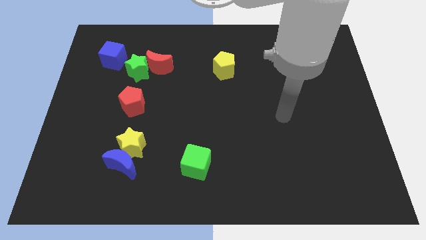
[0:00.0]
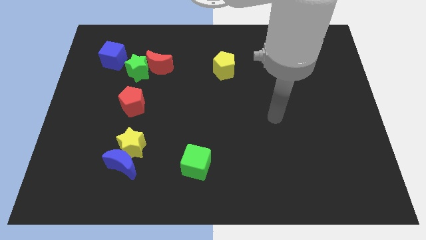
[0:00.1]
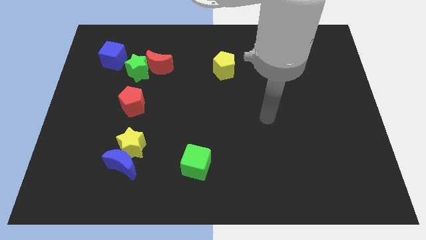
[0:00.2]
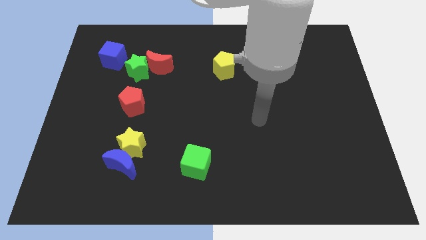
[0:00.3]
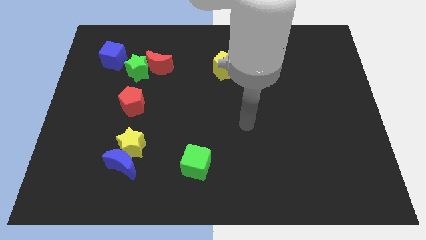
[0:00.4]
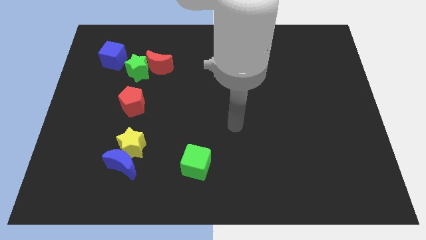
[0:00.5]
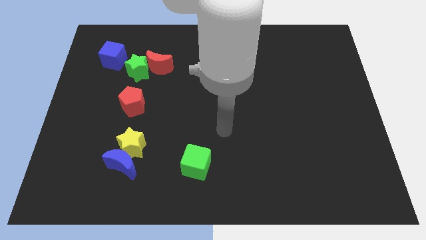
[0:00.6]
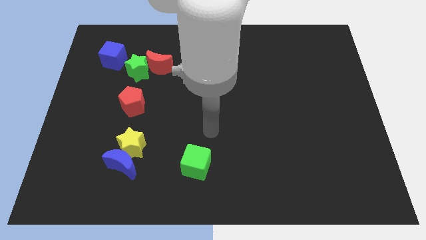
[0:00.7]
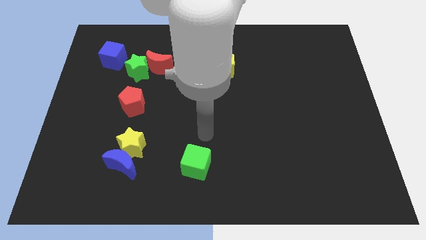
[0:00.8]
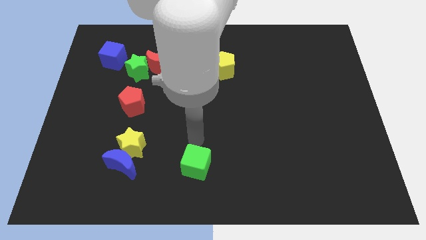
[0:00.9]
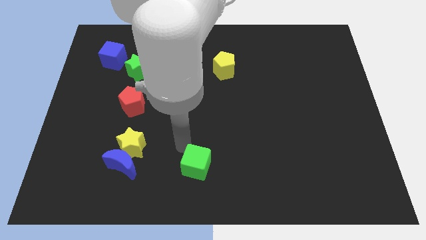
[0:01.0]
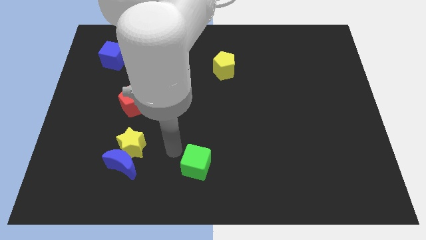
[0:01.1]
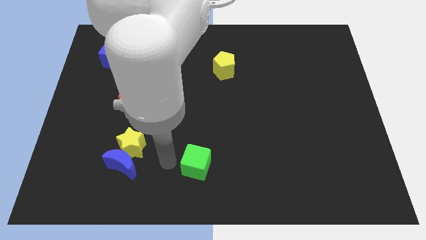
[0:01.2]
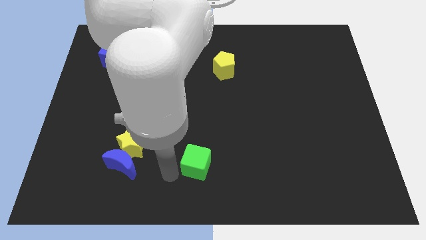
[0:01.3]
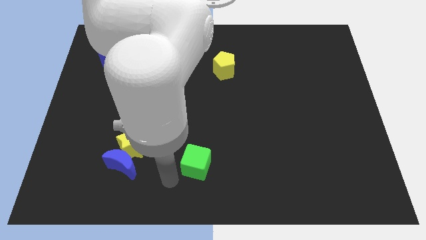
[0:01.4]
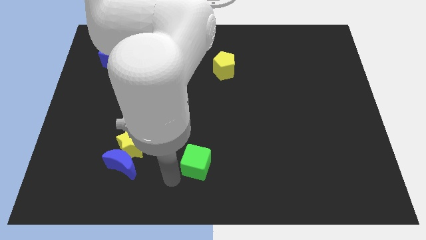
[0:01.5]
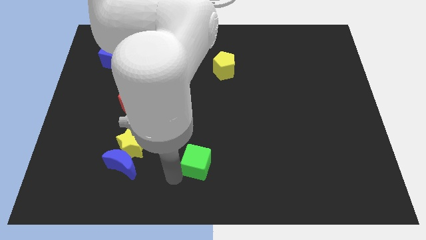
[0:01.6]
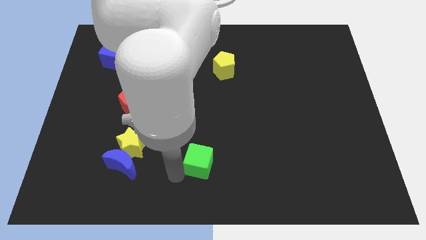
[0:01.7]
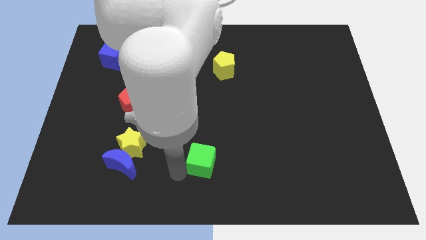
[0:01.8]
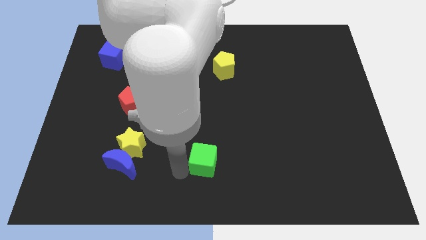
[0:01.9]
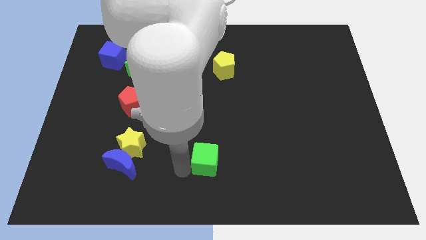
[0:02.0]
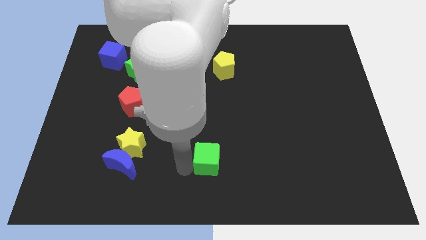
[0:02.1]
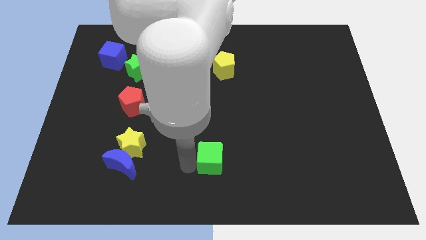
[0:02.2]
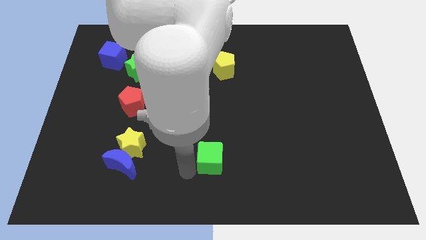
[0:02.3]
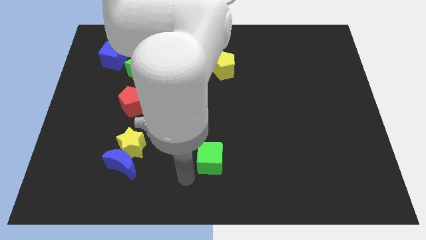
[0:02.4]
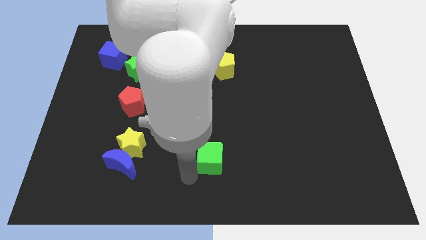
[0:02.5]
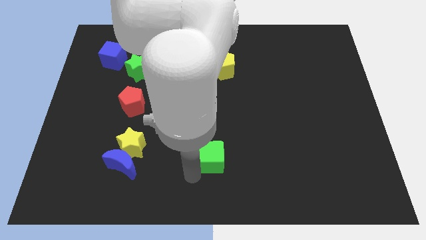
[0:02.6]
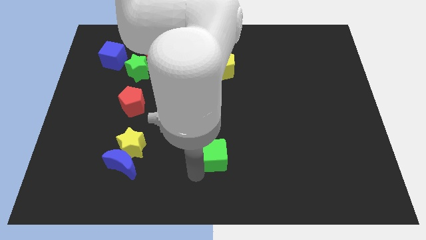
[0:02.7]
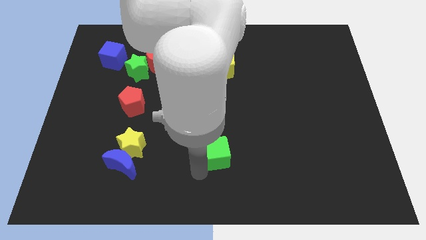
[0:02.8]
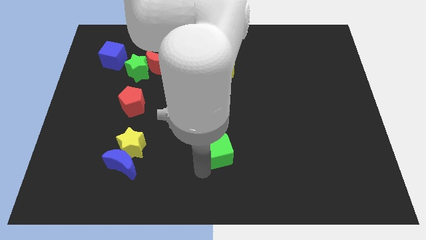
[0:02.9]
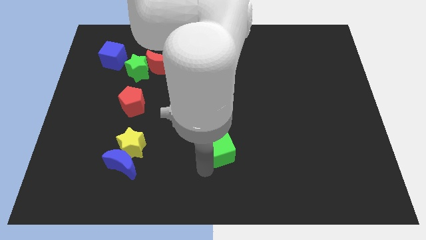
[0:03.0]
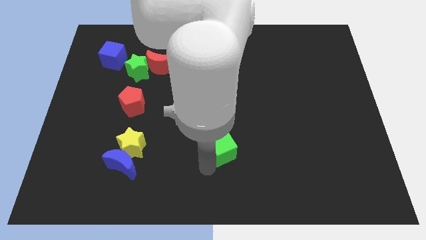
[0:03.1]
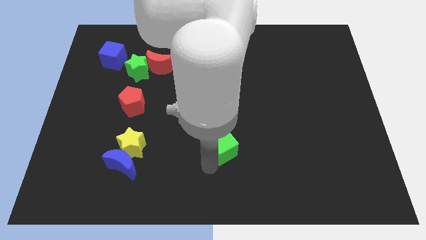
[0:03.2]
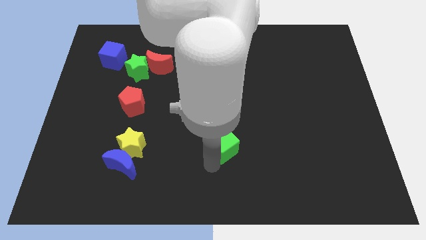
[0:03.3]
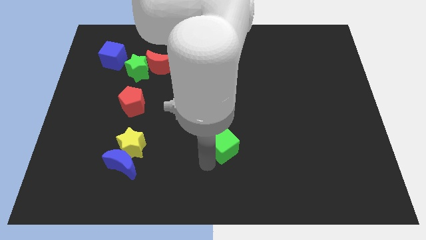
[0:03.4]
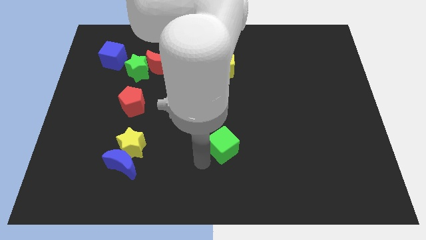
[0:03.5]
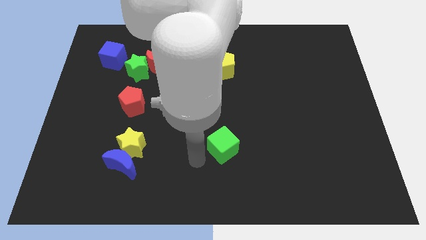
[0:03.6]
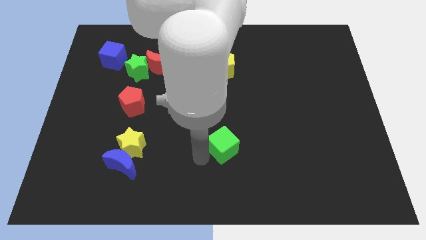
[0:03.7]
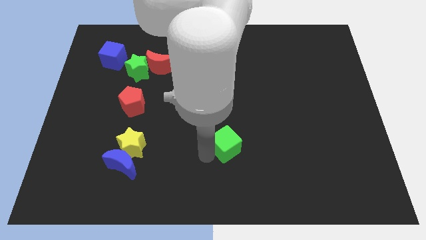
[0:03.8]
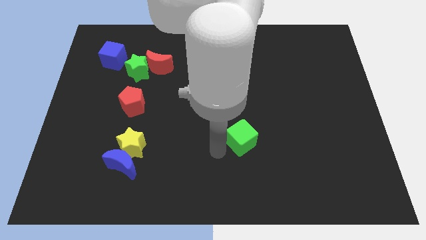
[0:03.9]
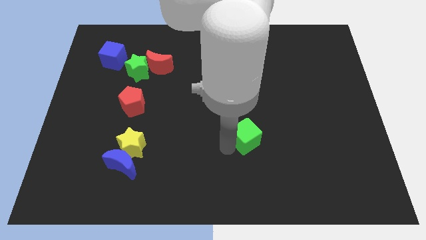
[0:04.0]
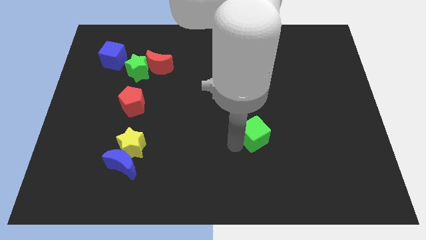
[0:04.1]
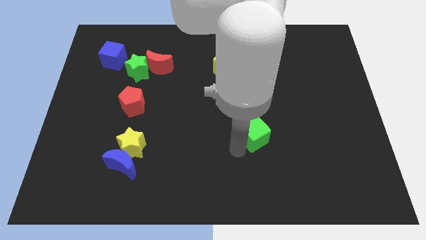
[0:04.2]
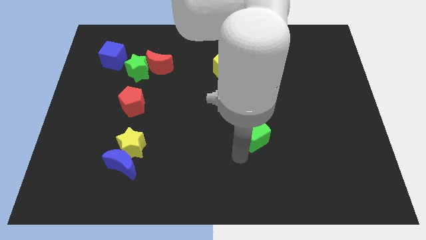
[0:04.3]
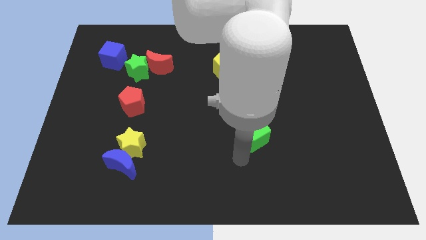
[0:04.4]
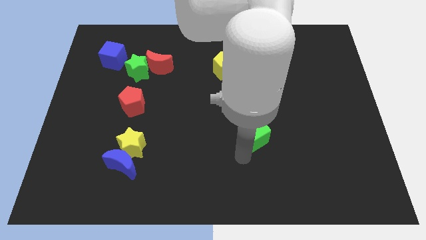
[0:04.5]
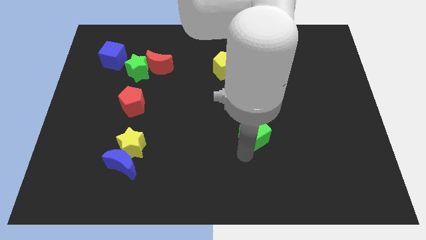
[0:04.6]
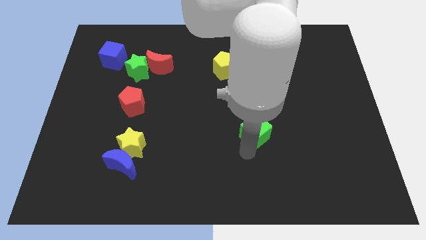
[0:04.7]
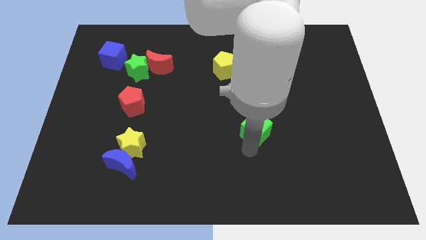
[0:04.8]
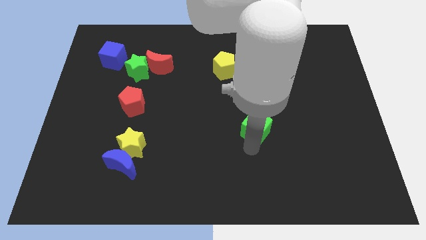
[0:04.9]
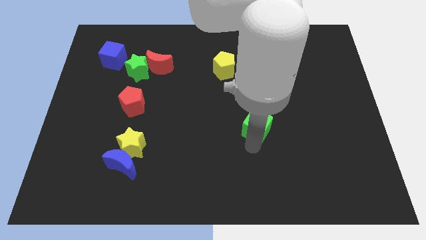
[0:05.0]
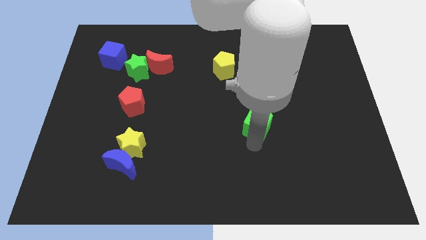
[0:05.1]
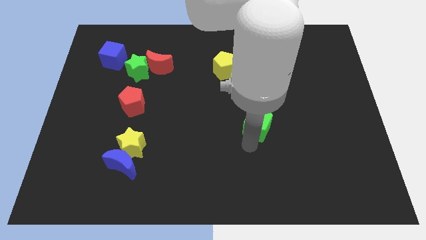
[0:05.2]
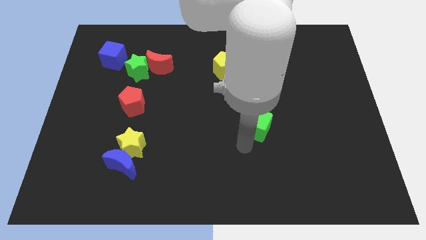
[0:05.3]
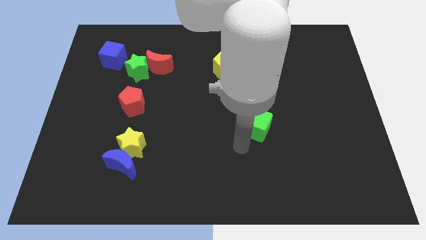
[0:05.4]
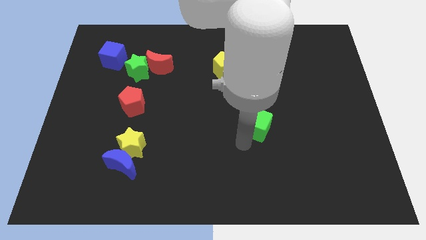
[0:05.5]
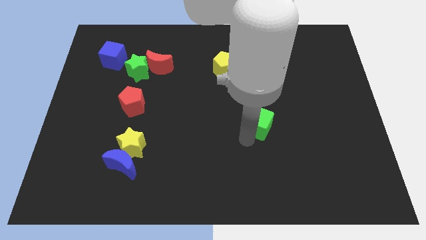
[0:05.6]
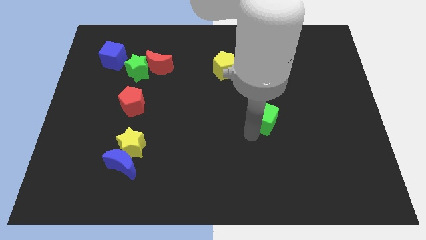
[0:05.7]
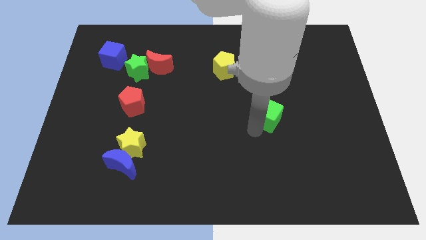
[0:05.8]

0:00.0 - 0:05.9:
slide the green cube upwards and to the right diagonally

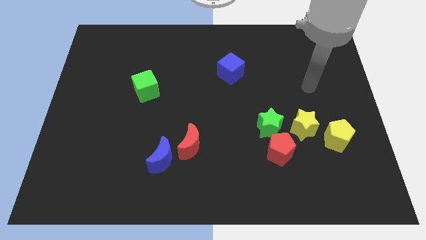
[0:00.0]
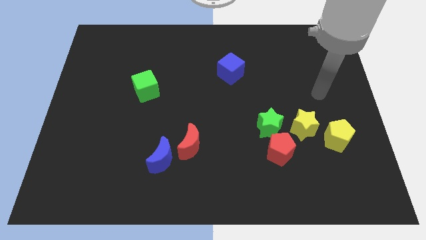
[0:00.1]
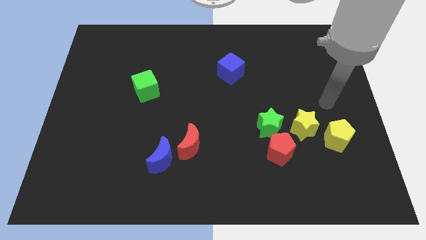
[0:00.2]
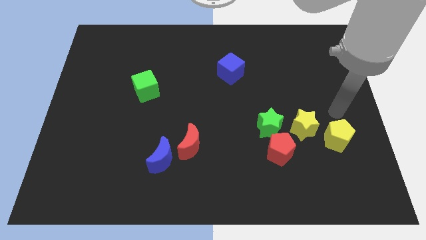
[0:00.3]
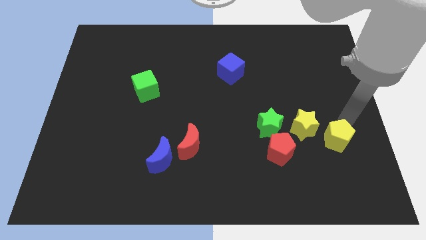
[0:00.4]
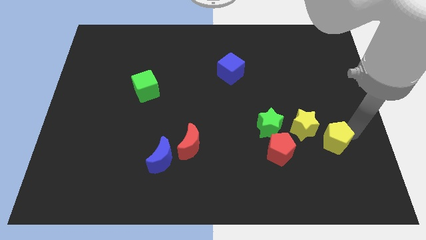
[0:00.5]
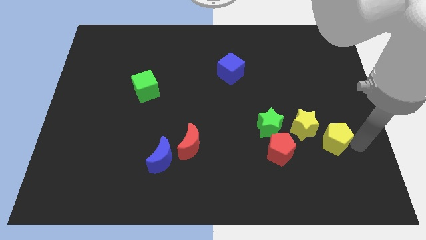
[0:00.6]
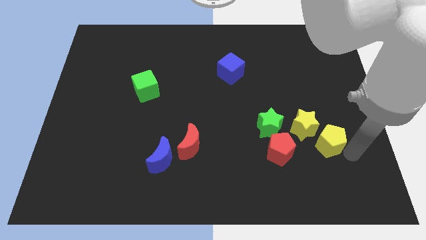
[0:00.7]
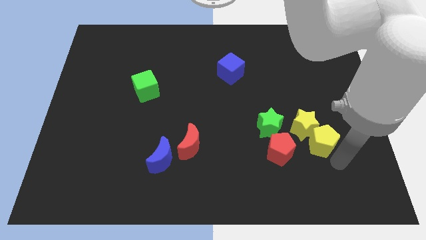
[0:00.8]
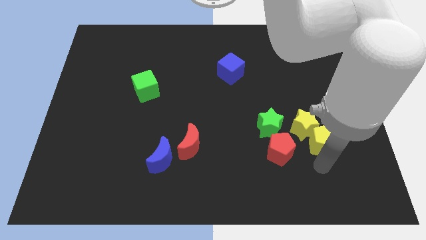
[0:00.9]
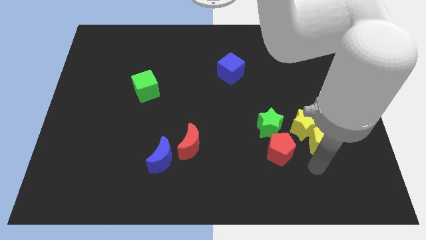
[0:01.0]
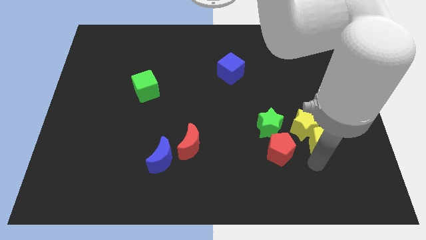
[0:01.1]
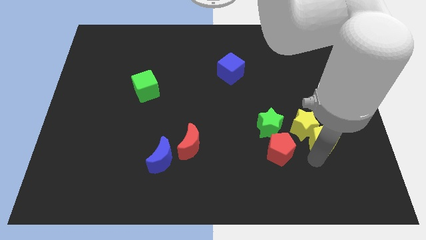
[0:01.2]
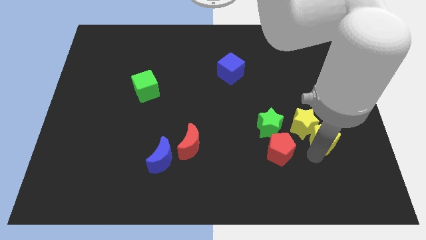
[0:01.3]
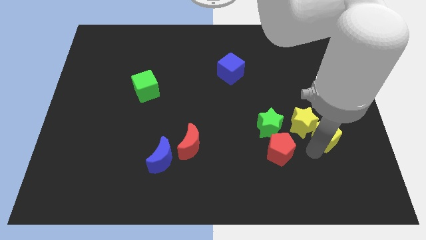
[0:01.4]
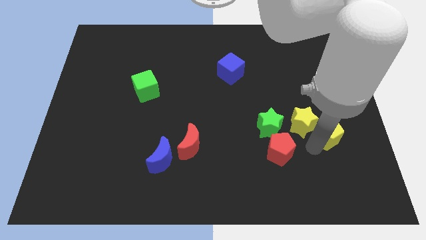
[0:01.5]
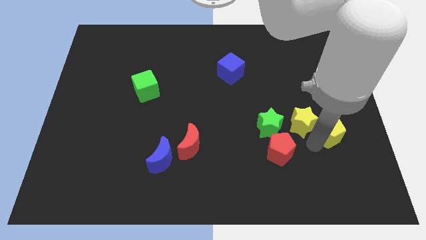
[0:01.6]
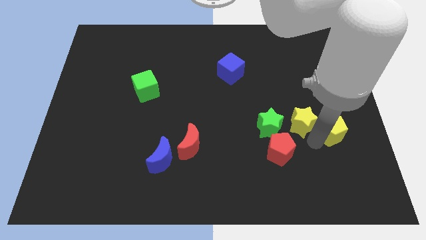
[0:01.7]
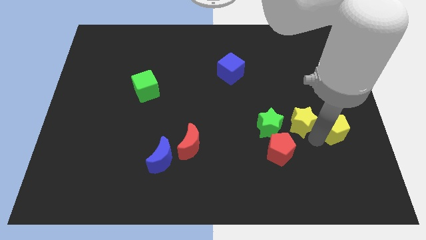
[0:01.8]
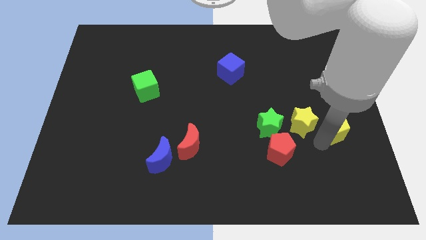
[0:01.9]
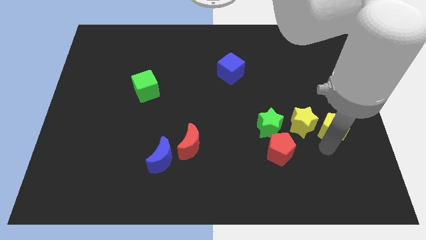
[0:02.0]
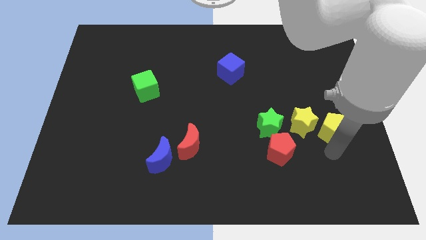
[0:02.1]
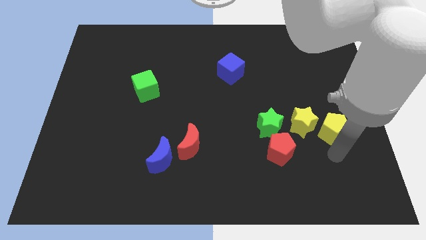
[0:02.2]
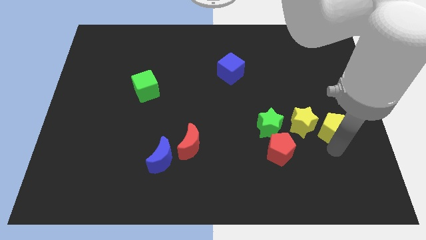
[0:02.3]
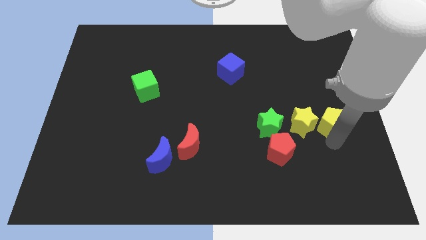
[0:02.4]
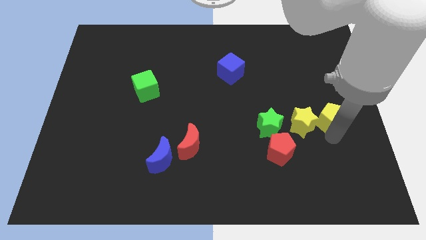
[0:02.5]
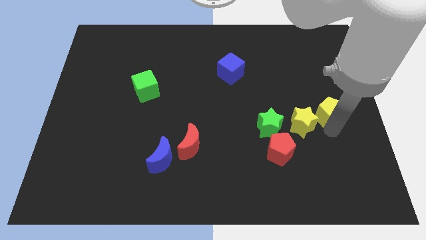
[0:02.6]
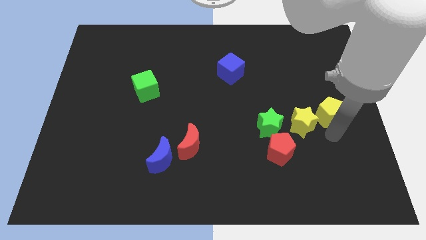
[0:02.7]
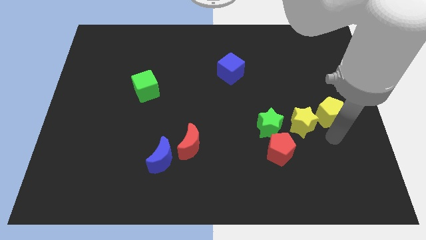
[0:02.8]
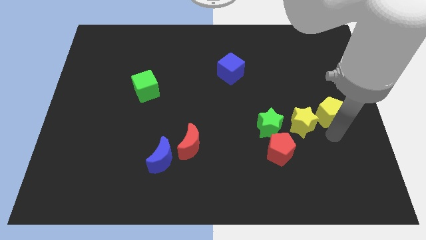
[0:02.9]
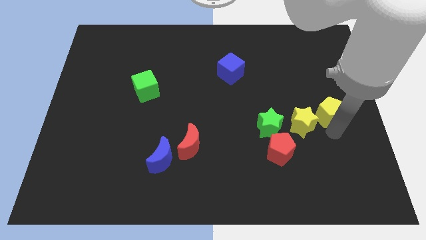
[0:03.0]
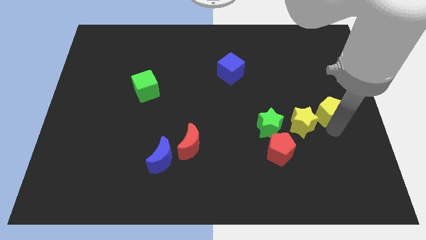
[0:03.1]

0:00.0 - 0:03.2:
slightly move the yellow pentagon upwards
